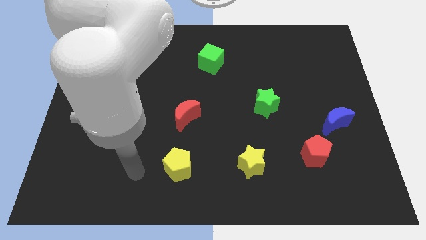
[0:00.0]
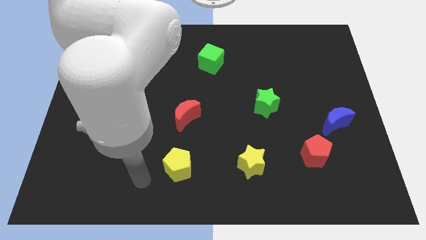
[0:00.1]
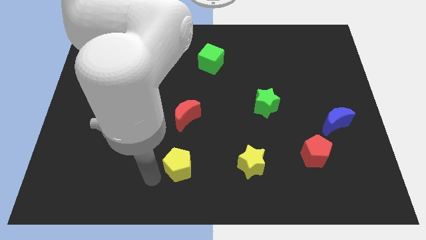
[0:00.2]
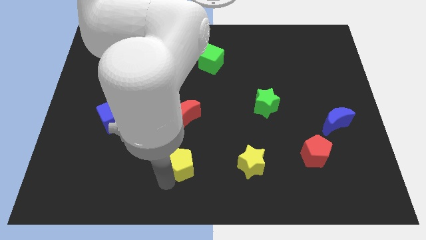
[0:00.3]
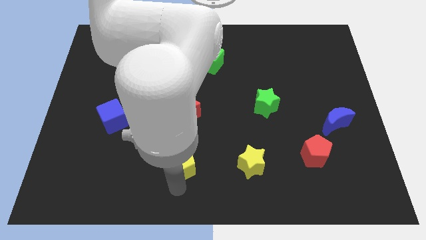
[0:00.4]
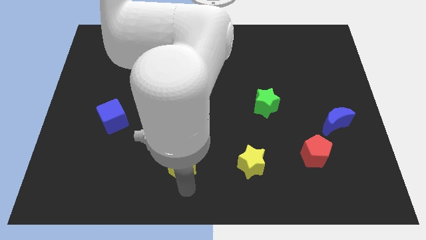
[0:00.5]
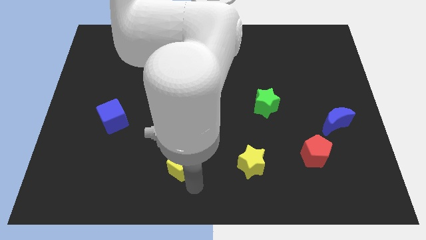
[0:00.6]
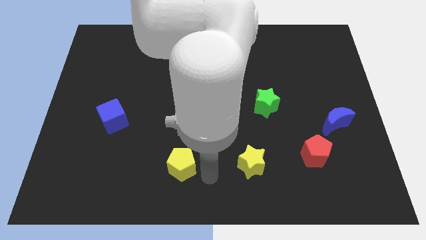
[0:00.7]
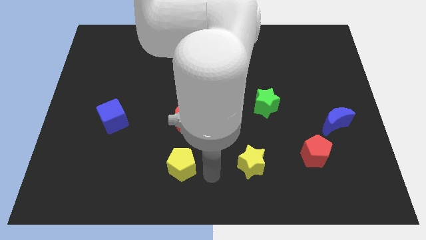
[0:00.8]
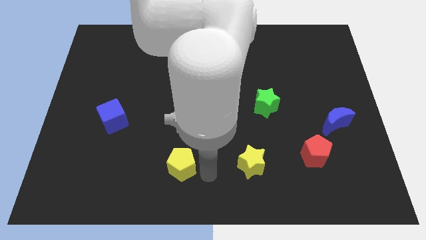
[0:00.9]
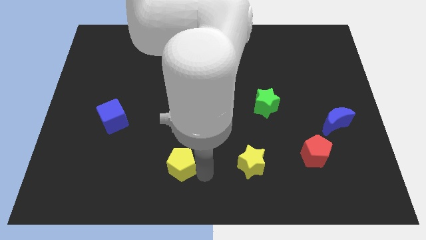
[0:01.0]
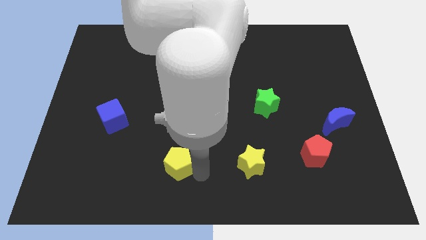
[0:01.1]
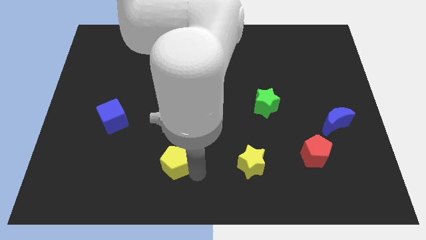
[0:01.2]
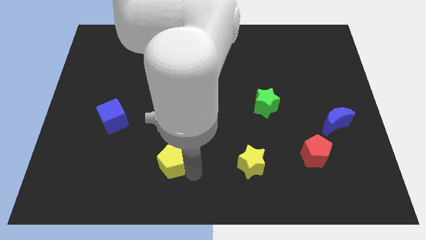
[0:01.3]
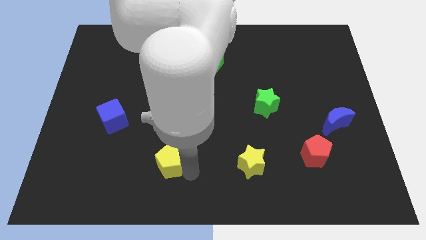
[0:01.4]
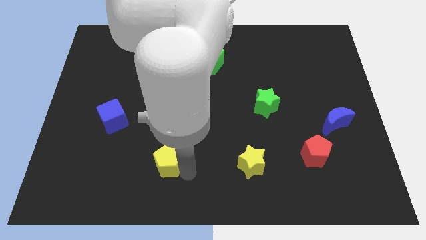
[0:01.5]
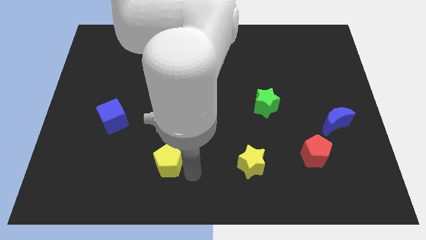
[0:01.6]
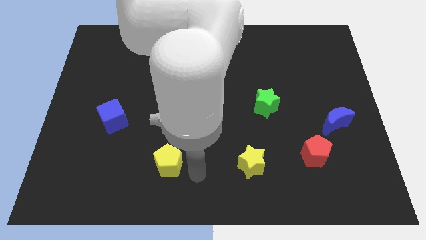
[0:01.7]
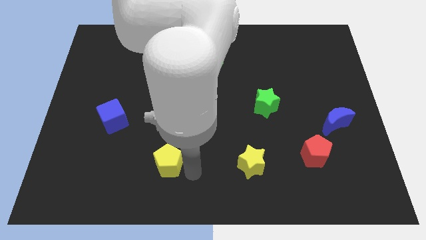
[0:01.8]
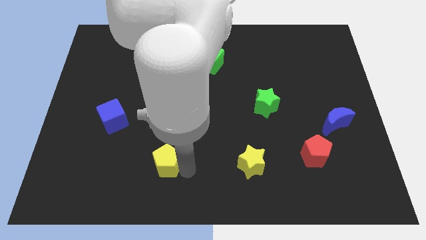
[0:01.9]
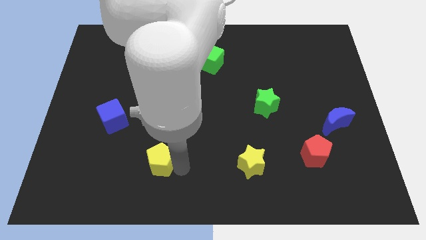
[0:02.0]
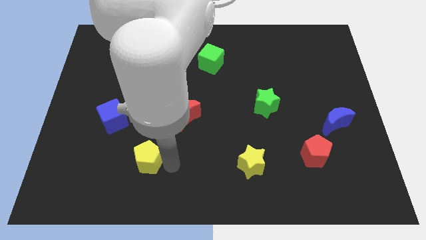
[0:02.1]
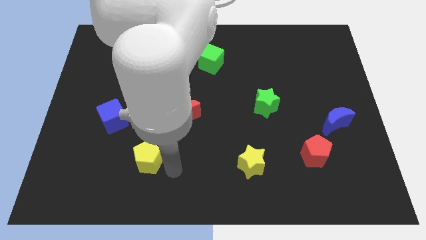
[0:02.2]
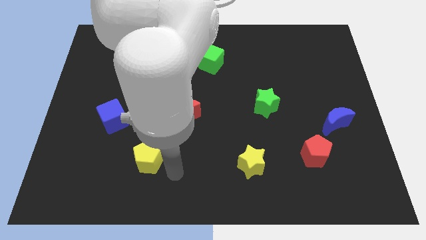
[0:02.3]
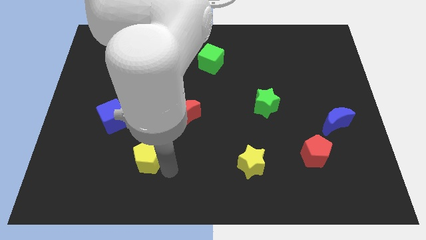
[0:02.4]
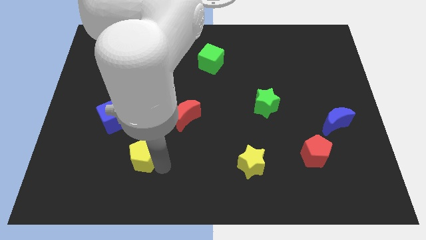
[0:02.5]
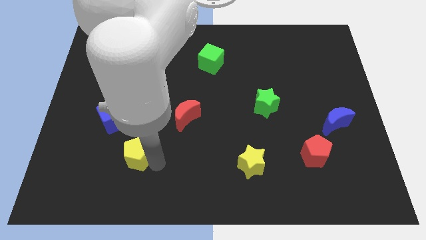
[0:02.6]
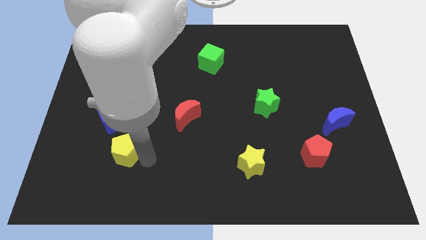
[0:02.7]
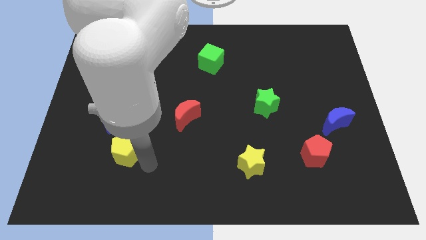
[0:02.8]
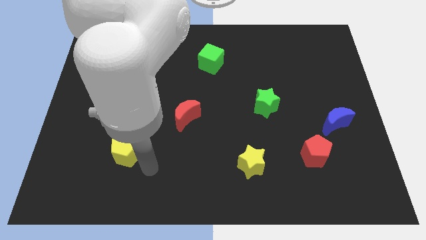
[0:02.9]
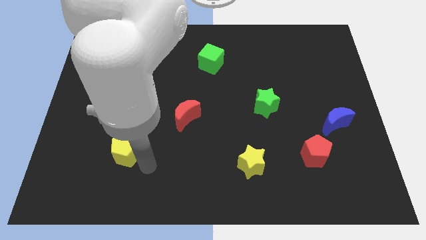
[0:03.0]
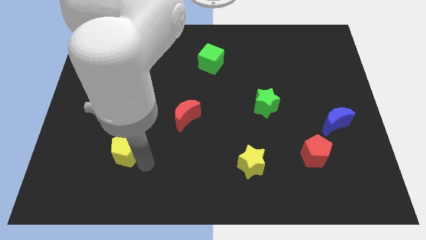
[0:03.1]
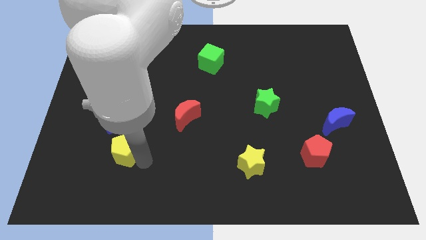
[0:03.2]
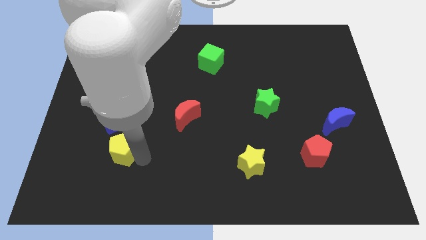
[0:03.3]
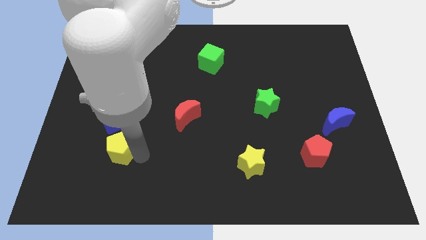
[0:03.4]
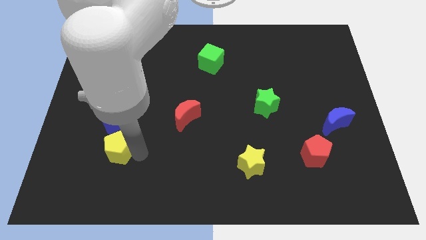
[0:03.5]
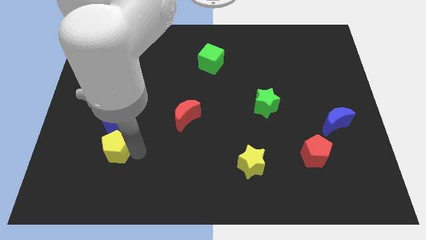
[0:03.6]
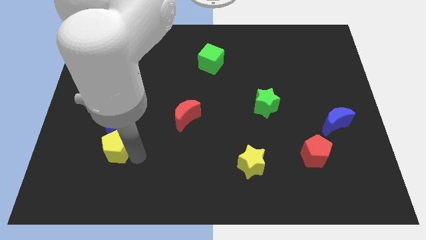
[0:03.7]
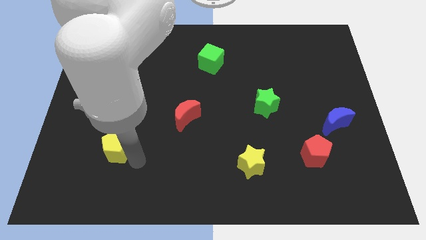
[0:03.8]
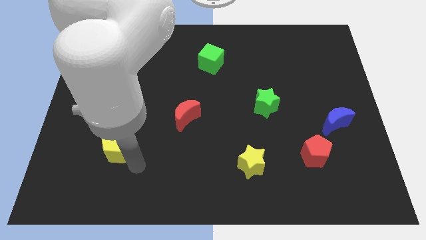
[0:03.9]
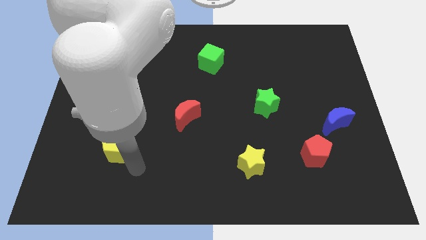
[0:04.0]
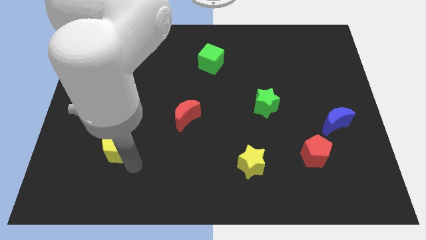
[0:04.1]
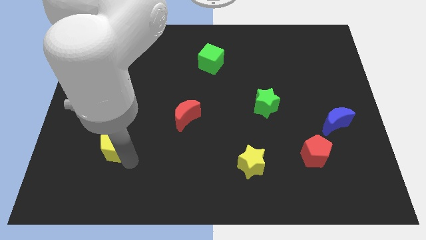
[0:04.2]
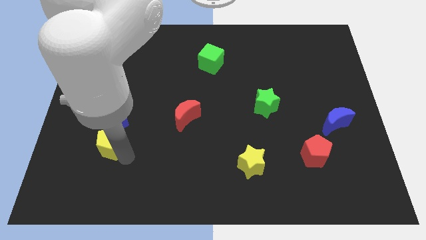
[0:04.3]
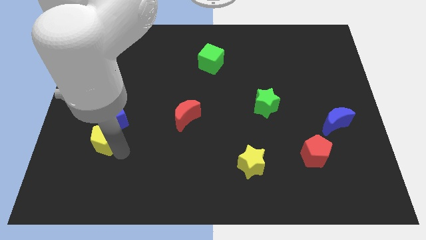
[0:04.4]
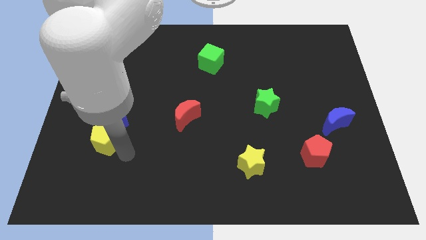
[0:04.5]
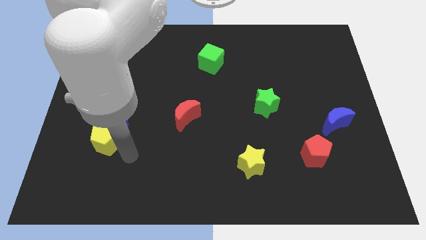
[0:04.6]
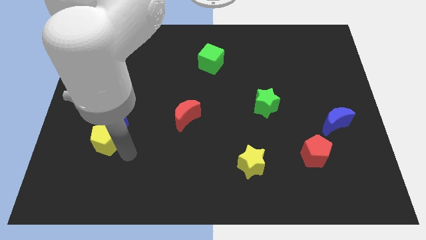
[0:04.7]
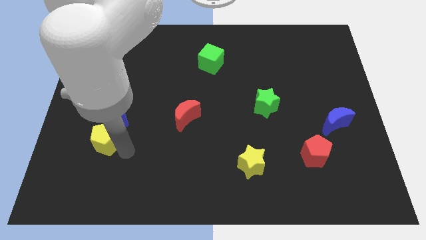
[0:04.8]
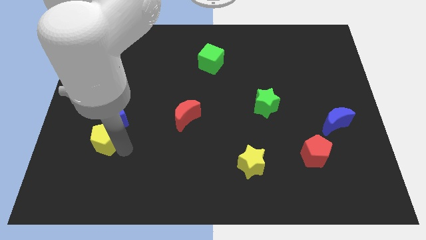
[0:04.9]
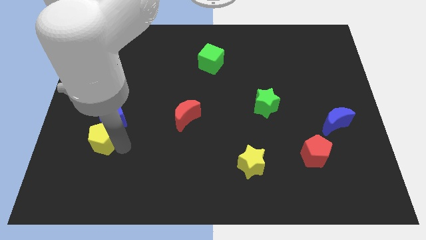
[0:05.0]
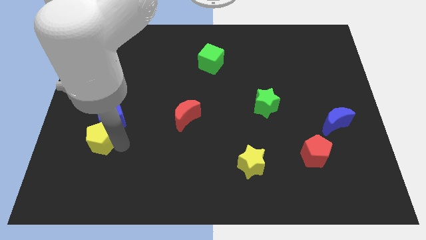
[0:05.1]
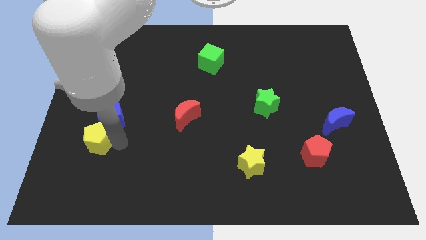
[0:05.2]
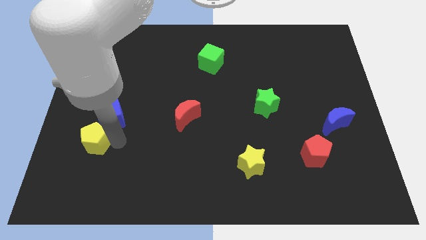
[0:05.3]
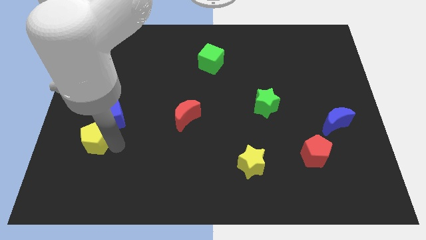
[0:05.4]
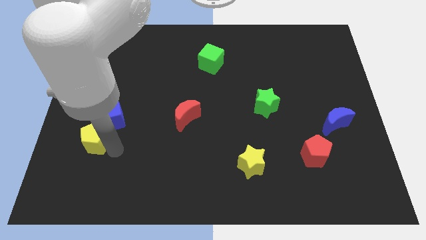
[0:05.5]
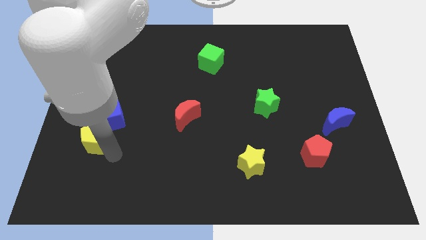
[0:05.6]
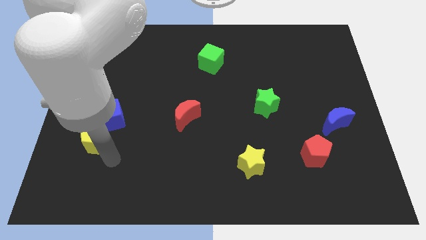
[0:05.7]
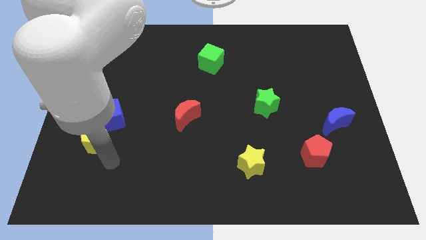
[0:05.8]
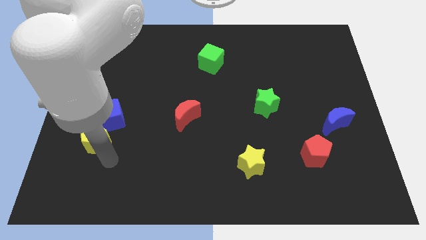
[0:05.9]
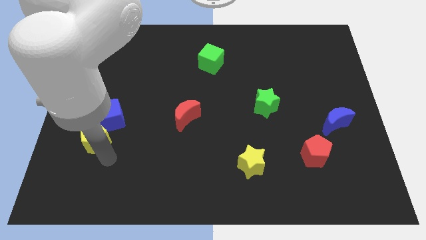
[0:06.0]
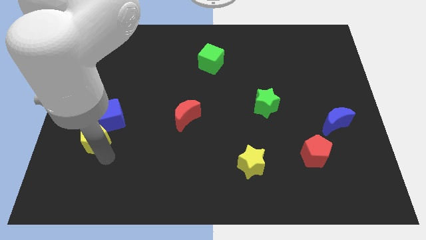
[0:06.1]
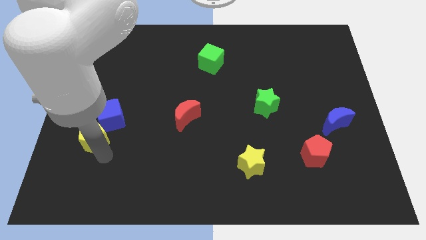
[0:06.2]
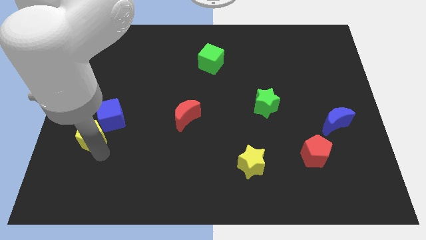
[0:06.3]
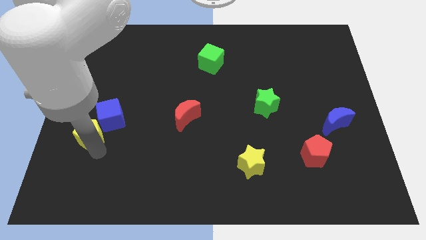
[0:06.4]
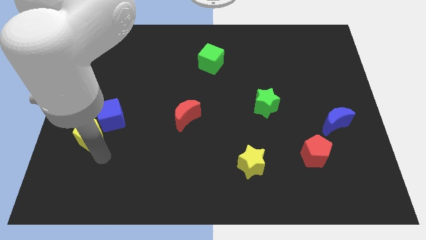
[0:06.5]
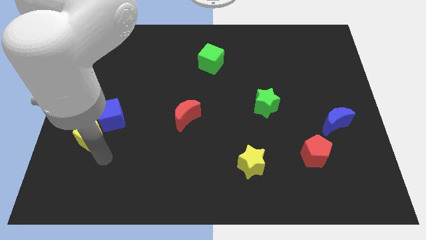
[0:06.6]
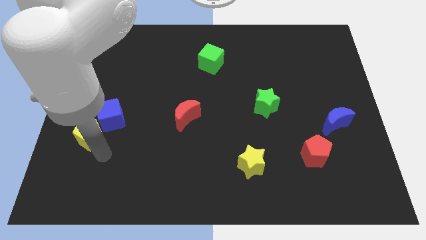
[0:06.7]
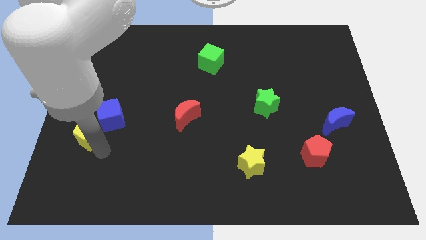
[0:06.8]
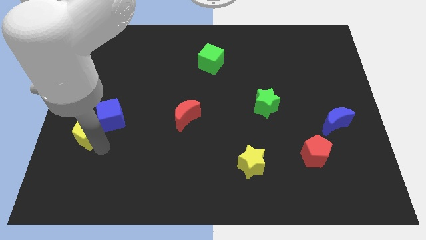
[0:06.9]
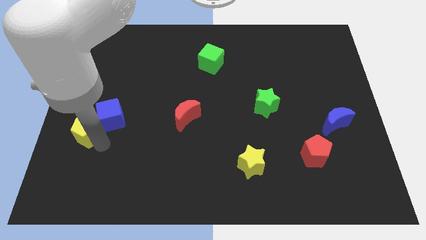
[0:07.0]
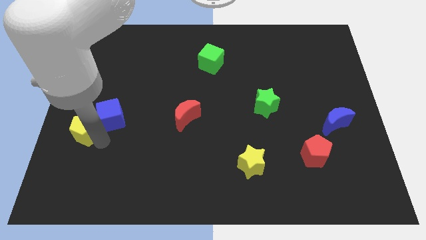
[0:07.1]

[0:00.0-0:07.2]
slide the yellow pentagon to the left side
